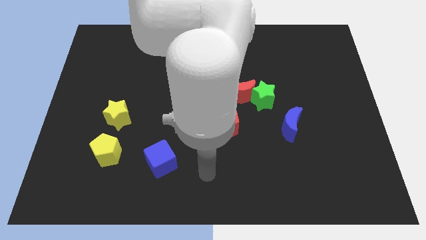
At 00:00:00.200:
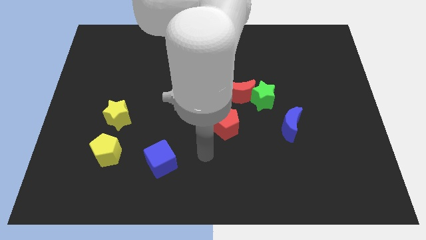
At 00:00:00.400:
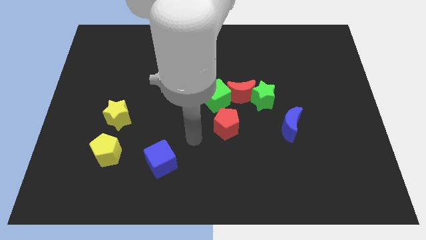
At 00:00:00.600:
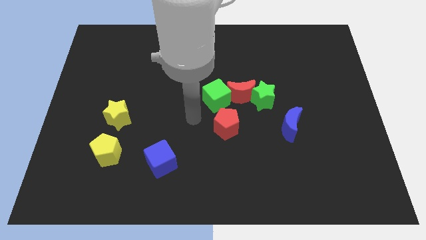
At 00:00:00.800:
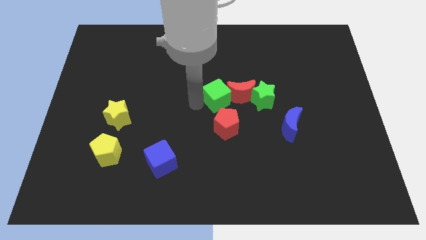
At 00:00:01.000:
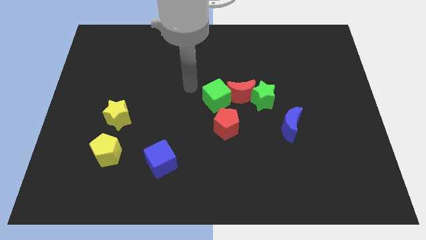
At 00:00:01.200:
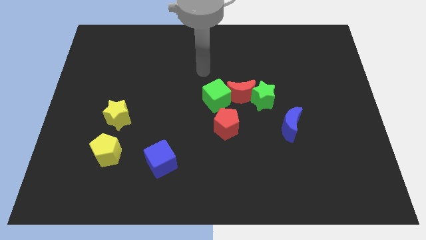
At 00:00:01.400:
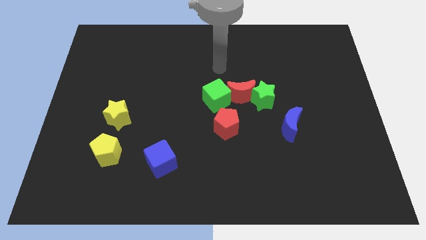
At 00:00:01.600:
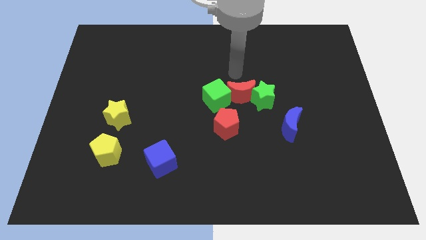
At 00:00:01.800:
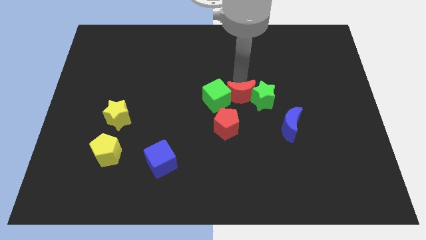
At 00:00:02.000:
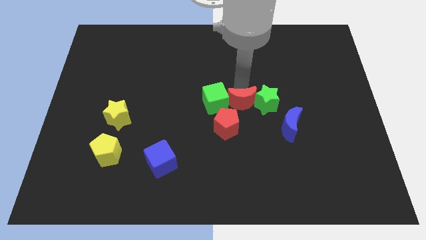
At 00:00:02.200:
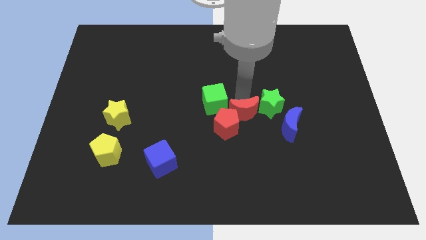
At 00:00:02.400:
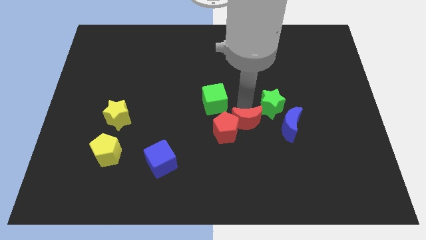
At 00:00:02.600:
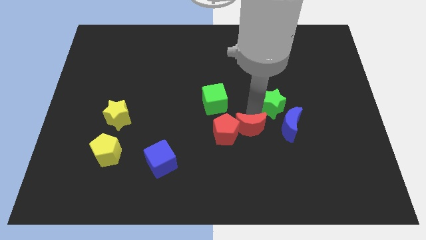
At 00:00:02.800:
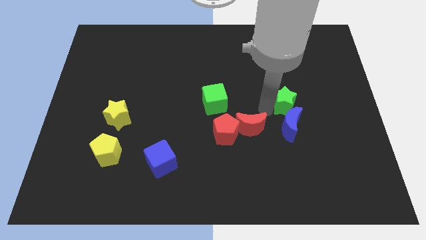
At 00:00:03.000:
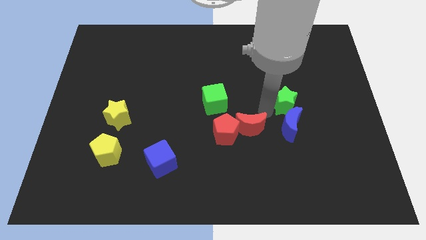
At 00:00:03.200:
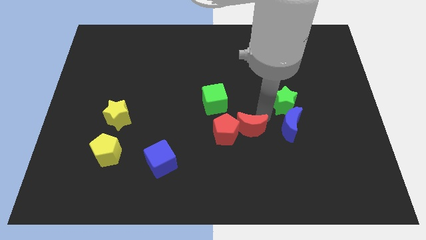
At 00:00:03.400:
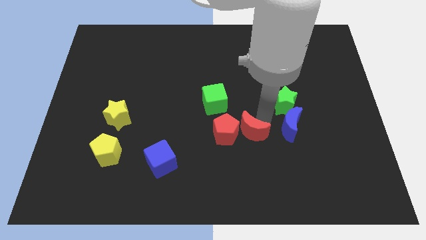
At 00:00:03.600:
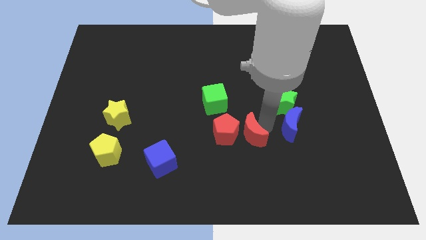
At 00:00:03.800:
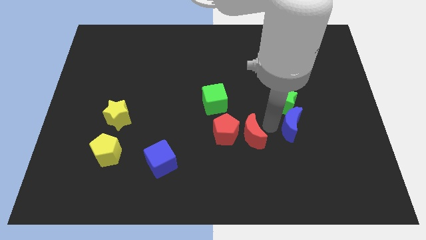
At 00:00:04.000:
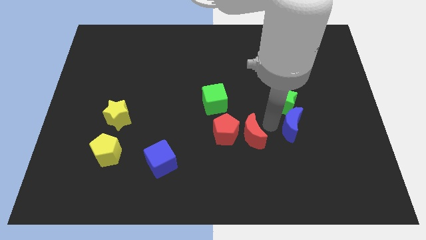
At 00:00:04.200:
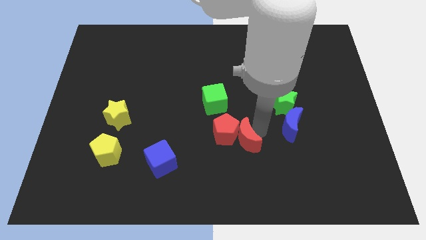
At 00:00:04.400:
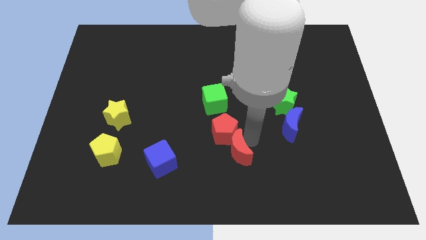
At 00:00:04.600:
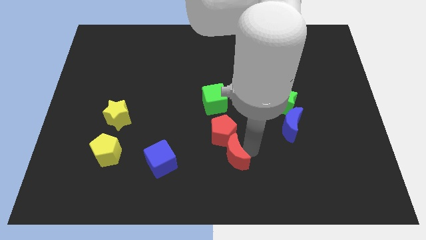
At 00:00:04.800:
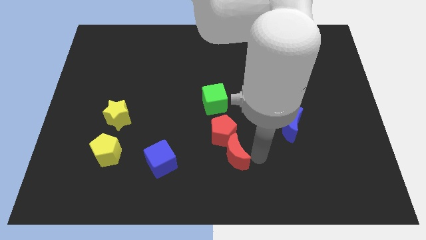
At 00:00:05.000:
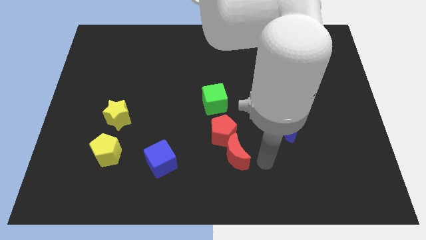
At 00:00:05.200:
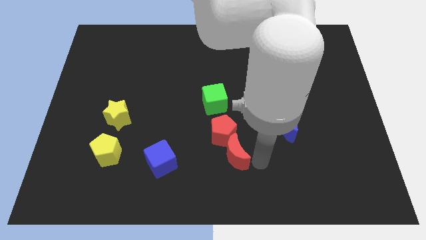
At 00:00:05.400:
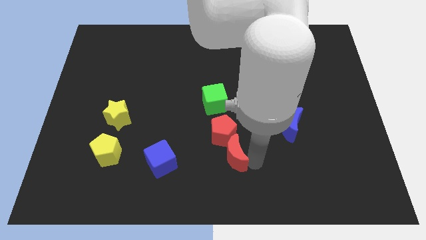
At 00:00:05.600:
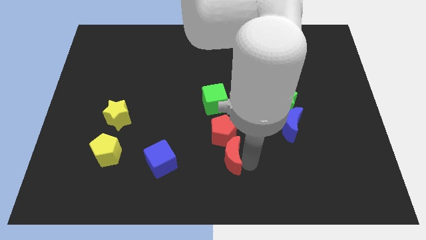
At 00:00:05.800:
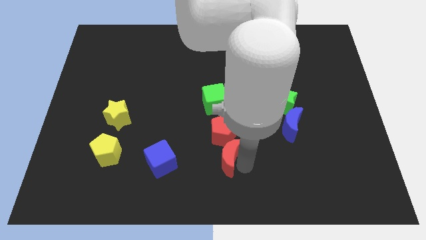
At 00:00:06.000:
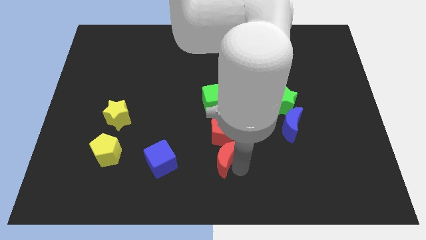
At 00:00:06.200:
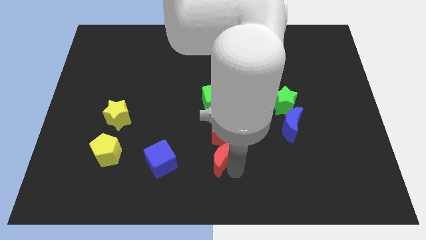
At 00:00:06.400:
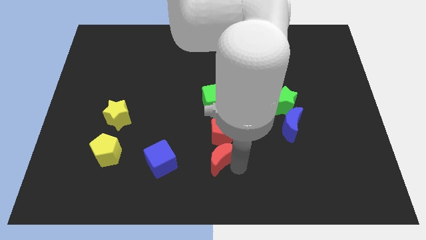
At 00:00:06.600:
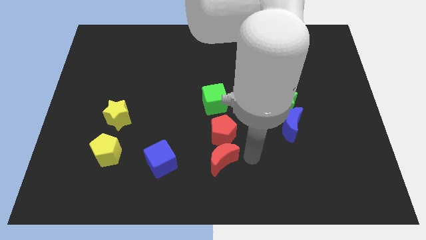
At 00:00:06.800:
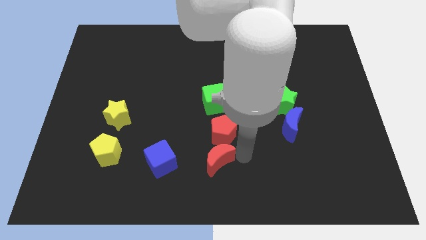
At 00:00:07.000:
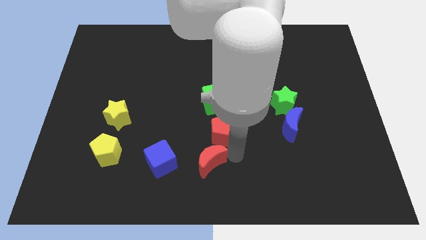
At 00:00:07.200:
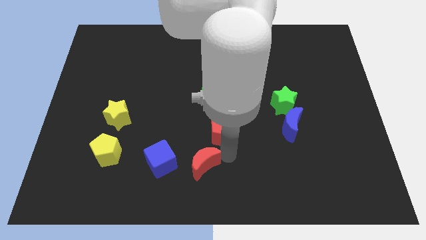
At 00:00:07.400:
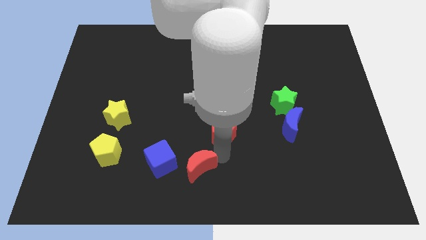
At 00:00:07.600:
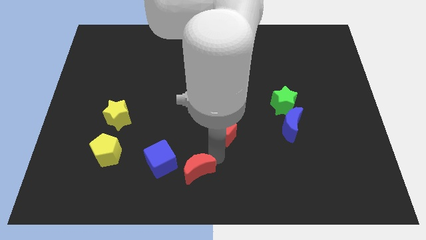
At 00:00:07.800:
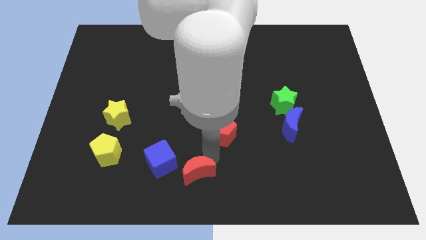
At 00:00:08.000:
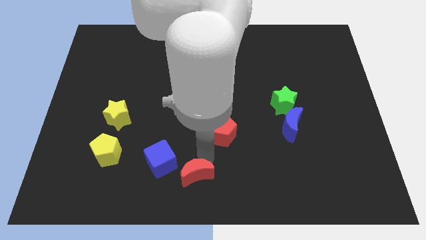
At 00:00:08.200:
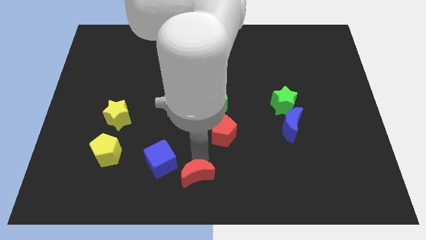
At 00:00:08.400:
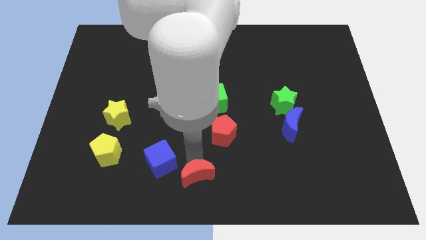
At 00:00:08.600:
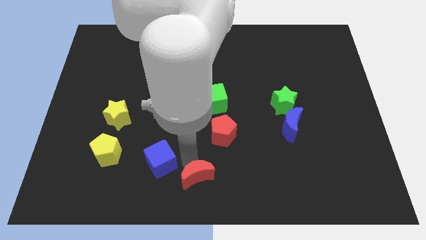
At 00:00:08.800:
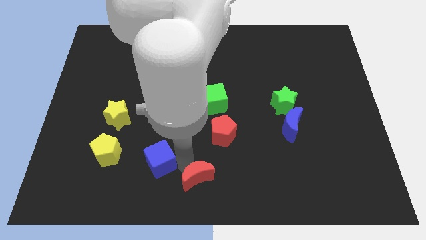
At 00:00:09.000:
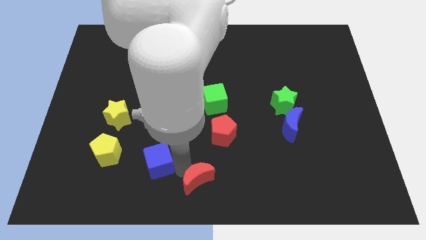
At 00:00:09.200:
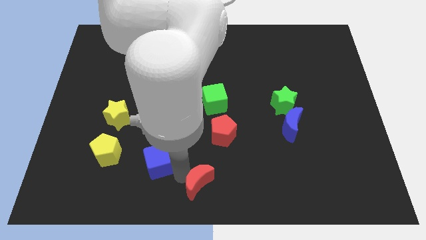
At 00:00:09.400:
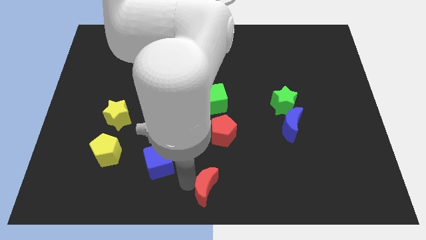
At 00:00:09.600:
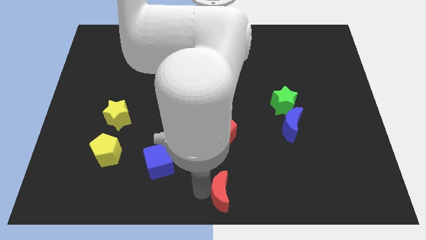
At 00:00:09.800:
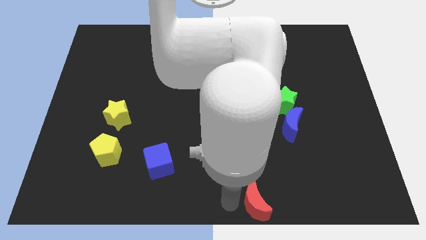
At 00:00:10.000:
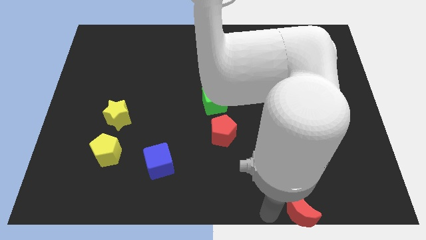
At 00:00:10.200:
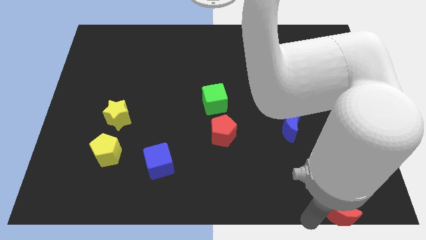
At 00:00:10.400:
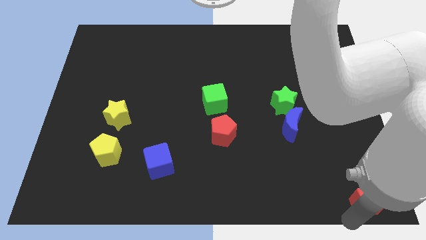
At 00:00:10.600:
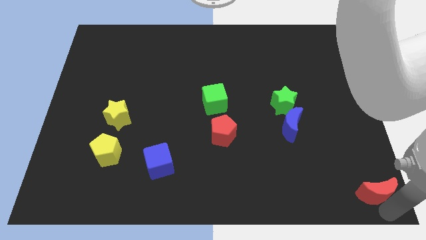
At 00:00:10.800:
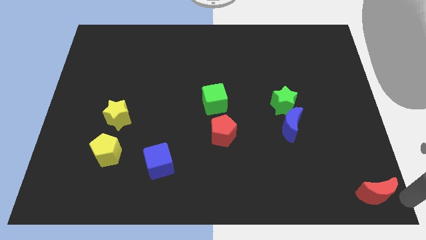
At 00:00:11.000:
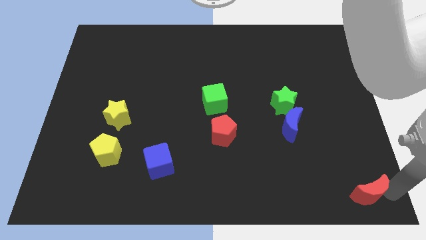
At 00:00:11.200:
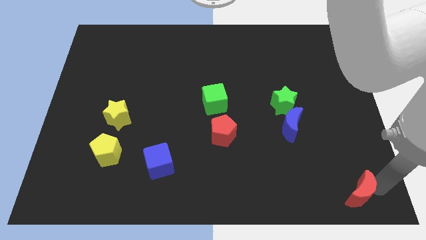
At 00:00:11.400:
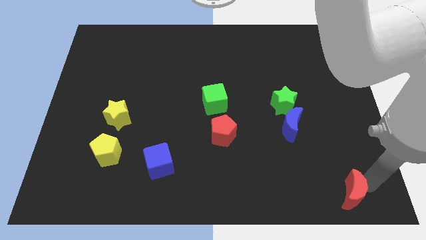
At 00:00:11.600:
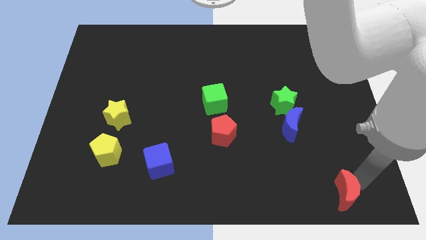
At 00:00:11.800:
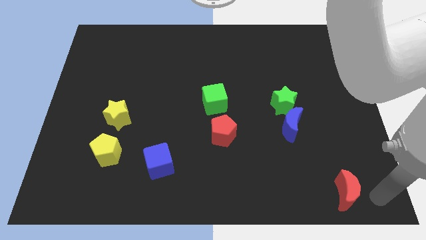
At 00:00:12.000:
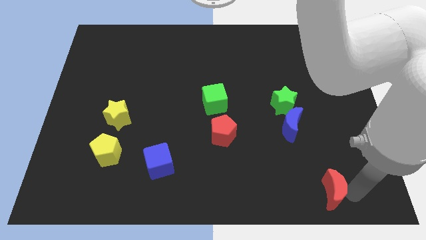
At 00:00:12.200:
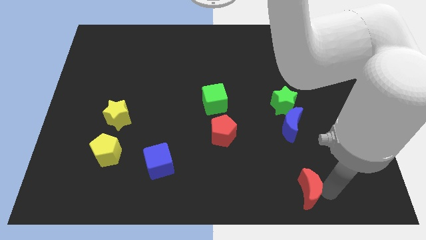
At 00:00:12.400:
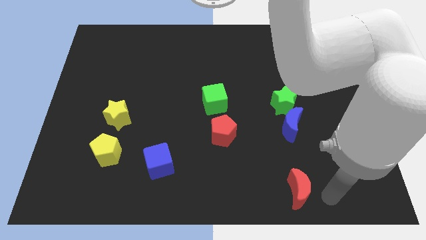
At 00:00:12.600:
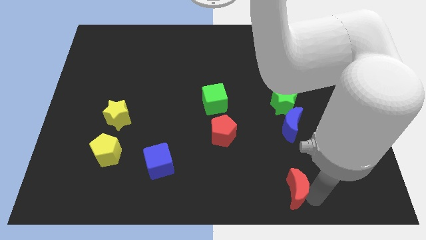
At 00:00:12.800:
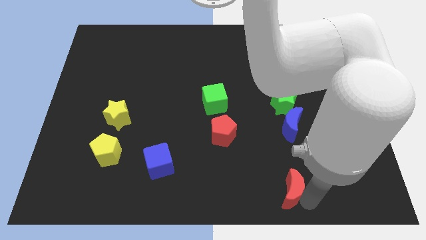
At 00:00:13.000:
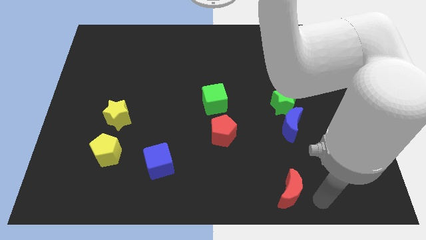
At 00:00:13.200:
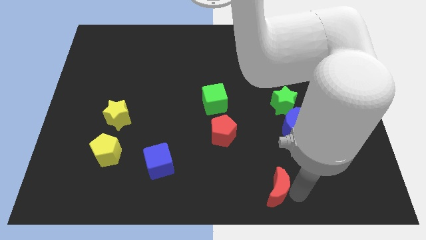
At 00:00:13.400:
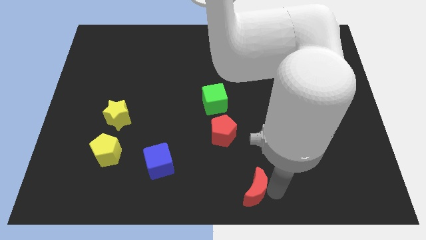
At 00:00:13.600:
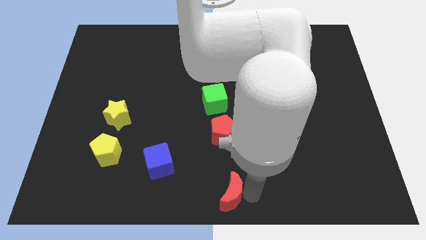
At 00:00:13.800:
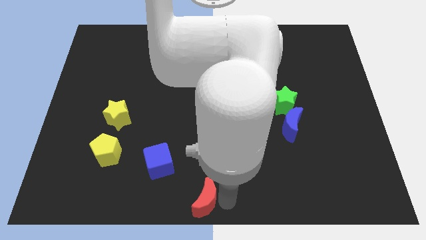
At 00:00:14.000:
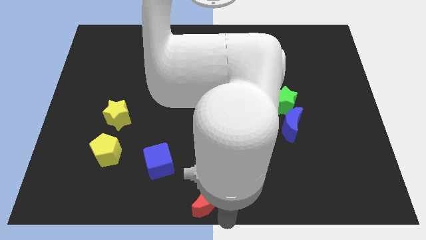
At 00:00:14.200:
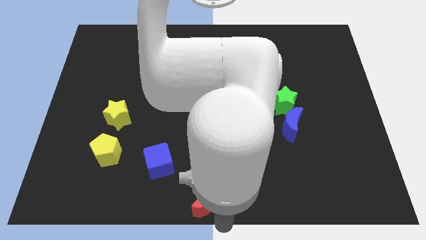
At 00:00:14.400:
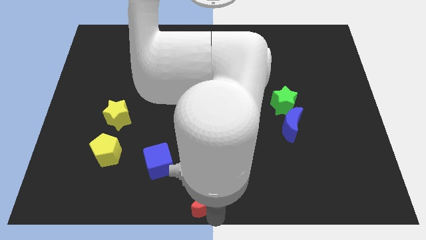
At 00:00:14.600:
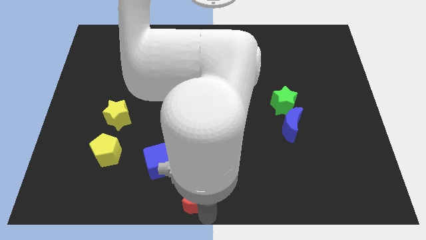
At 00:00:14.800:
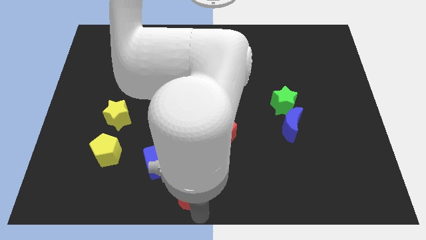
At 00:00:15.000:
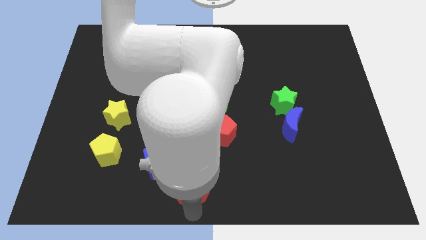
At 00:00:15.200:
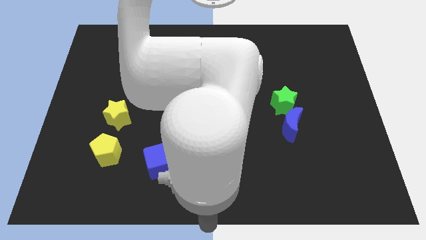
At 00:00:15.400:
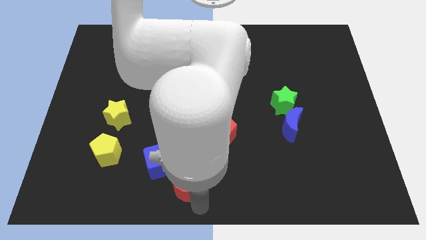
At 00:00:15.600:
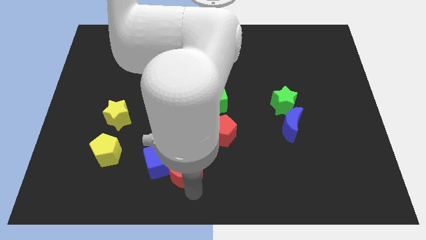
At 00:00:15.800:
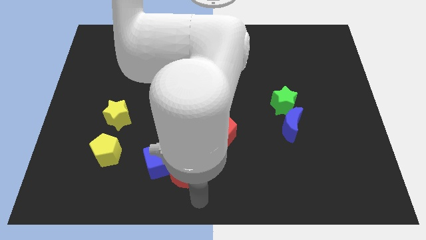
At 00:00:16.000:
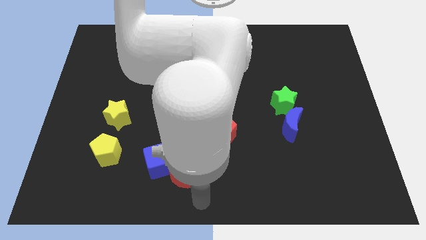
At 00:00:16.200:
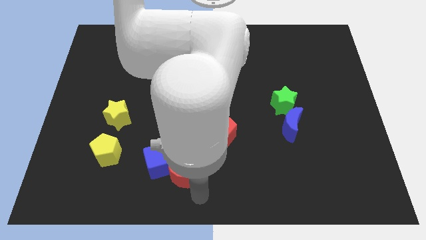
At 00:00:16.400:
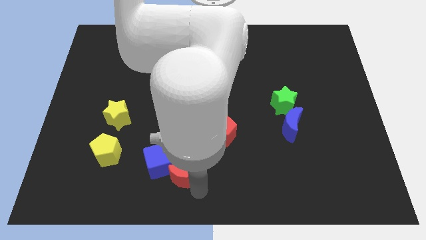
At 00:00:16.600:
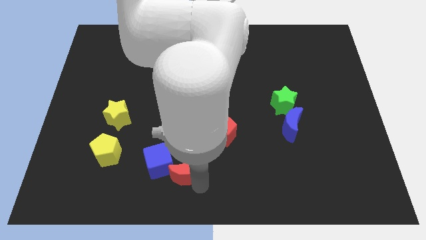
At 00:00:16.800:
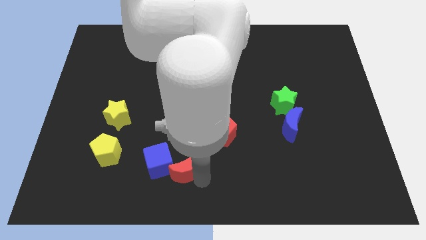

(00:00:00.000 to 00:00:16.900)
move the red moon close to the blue cube
